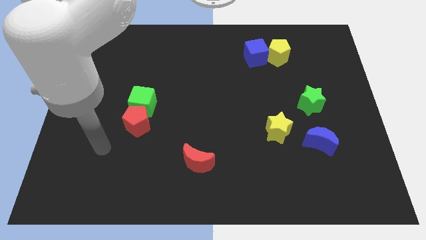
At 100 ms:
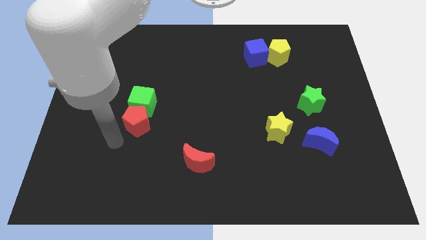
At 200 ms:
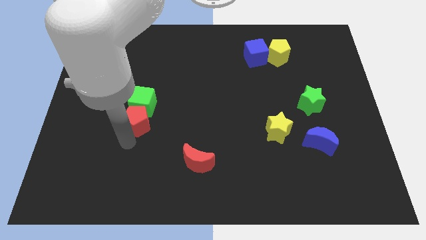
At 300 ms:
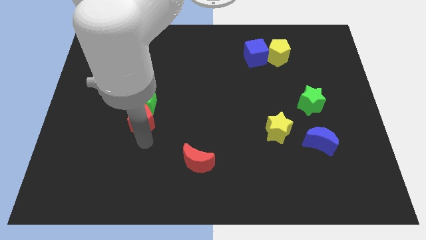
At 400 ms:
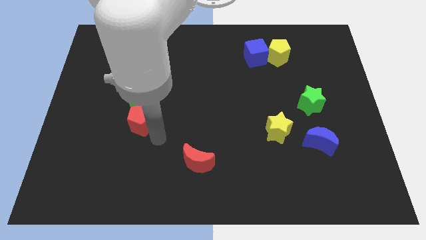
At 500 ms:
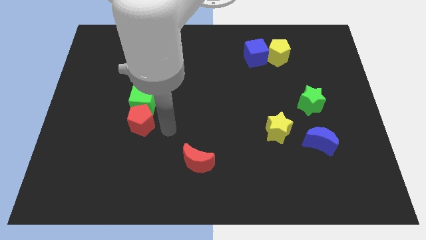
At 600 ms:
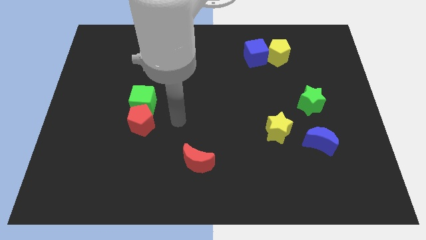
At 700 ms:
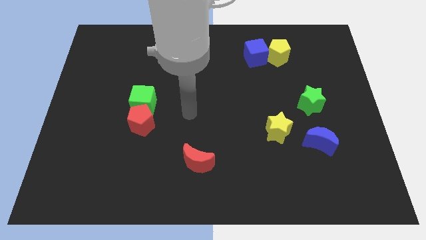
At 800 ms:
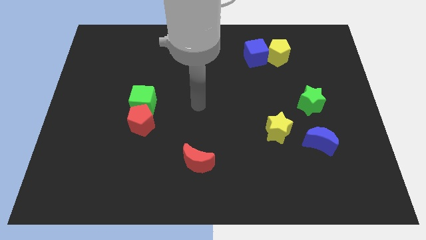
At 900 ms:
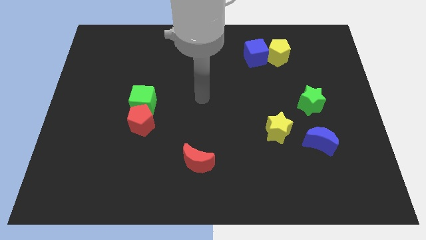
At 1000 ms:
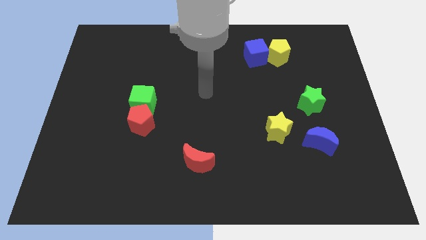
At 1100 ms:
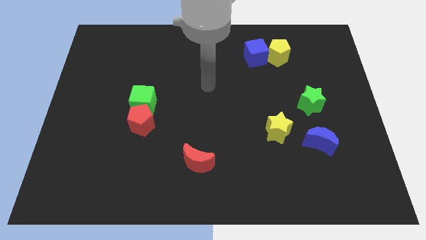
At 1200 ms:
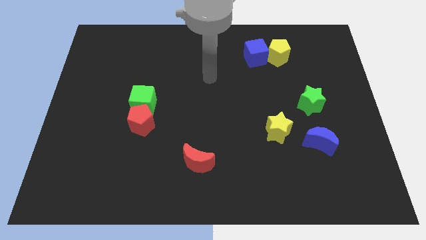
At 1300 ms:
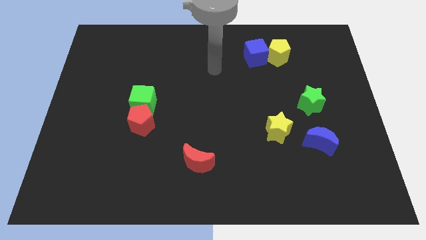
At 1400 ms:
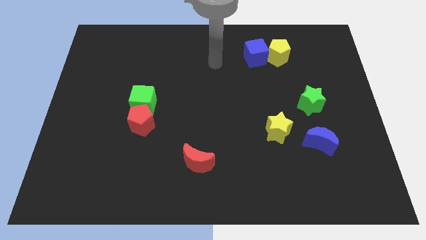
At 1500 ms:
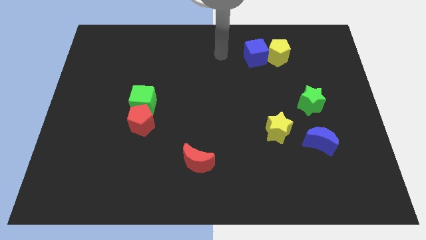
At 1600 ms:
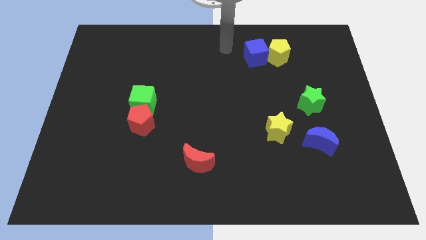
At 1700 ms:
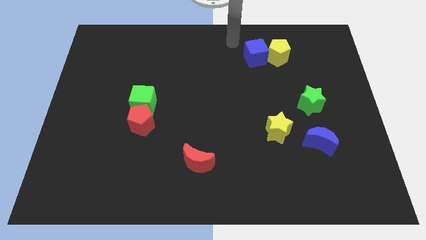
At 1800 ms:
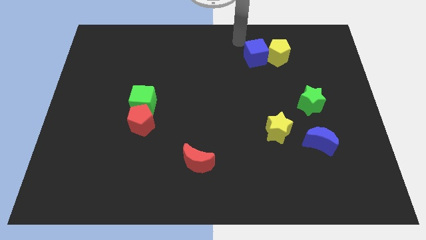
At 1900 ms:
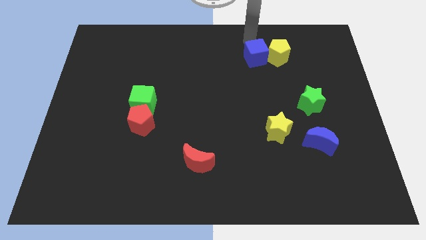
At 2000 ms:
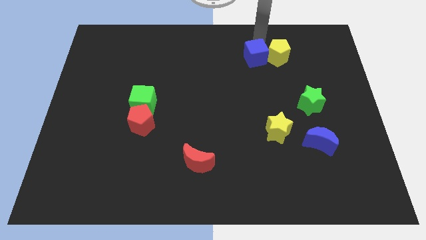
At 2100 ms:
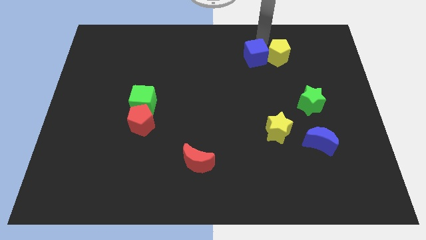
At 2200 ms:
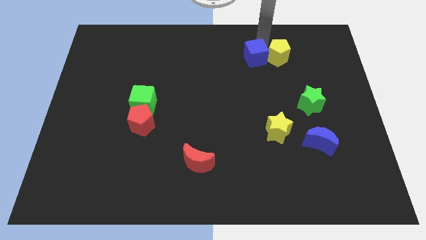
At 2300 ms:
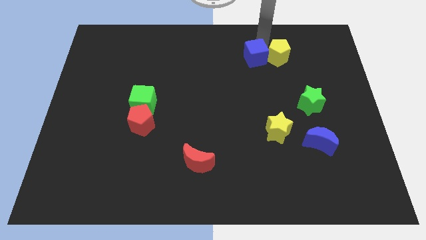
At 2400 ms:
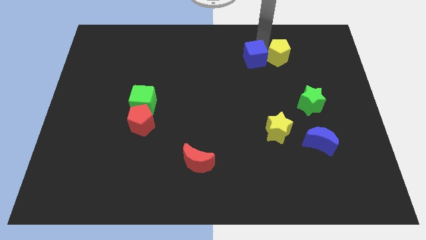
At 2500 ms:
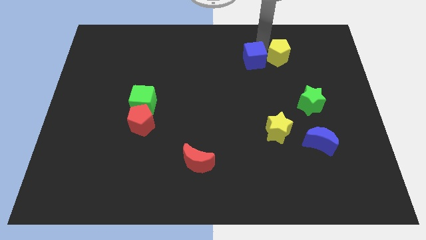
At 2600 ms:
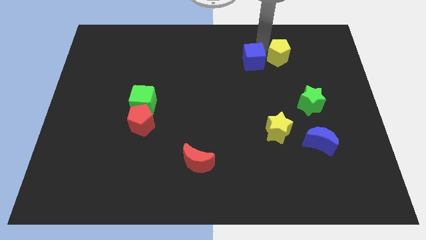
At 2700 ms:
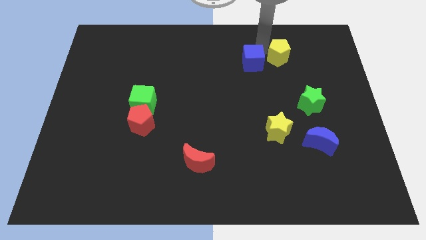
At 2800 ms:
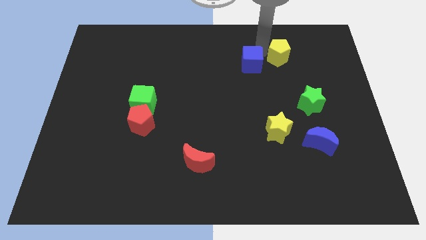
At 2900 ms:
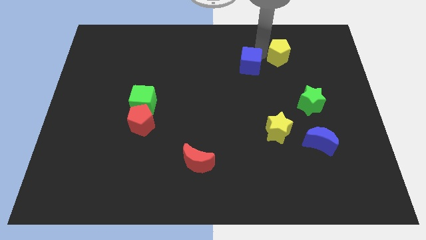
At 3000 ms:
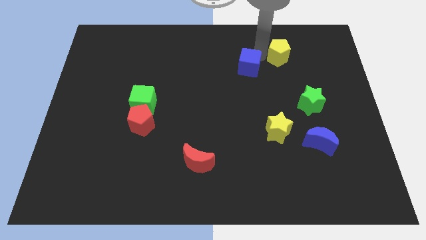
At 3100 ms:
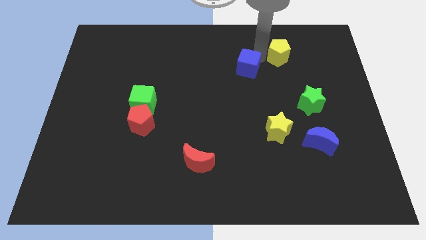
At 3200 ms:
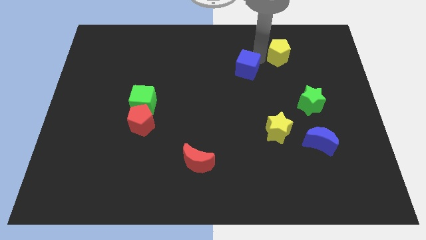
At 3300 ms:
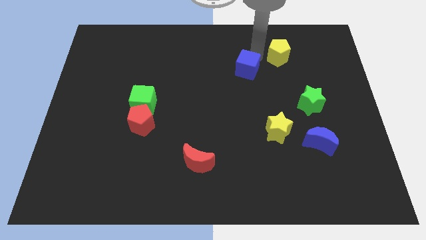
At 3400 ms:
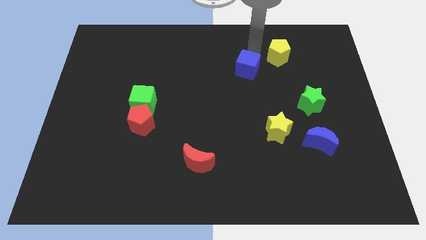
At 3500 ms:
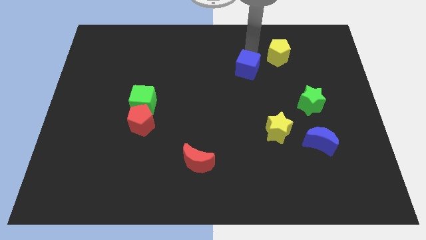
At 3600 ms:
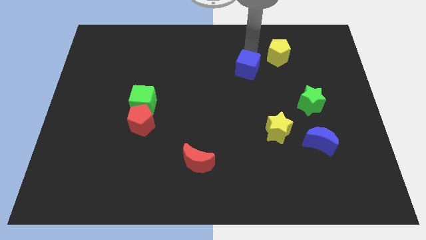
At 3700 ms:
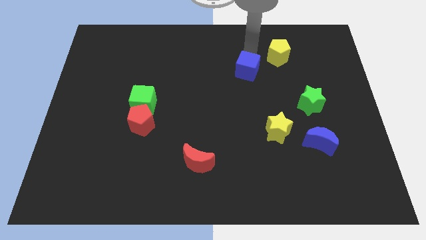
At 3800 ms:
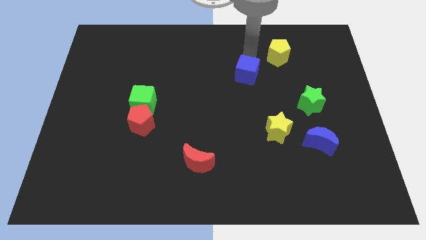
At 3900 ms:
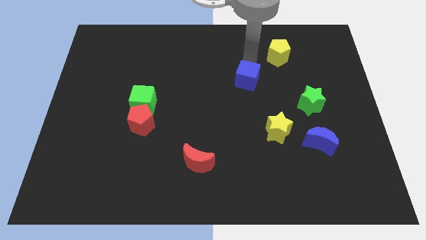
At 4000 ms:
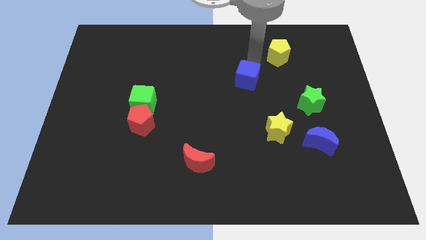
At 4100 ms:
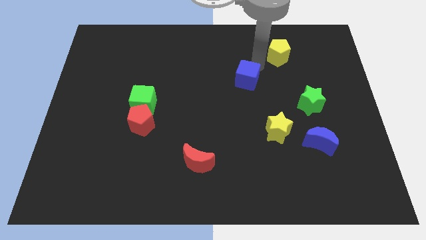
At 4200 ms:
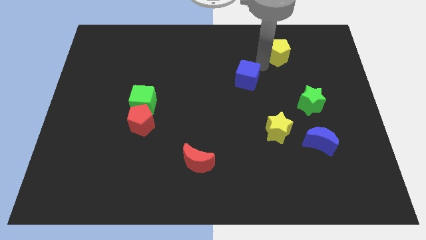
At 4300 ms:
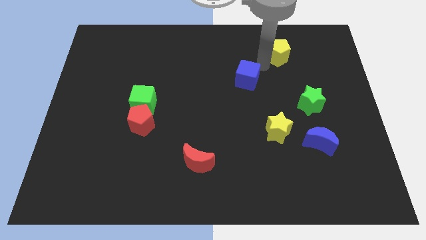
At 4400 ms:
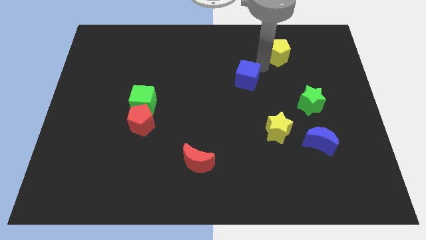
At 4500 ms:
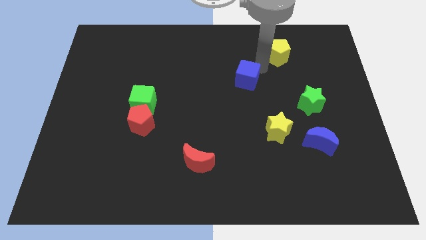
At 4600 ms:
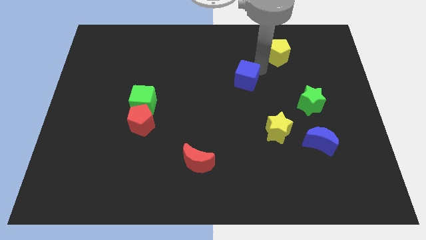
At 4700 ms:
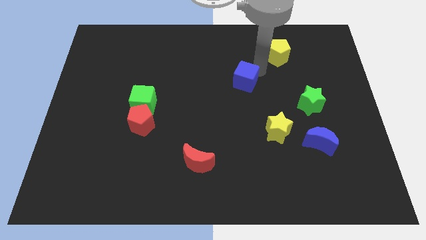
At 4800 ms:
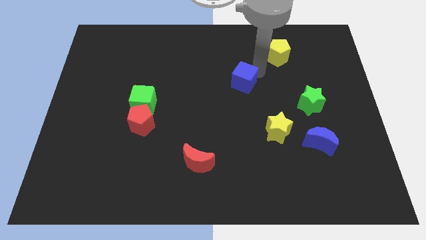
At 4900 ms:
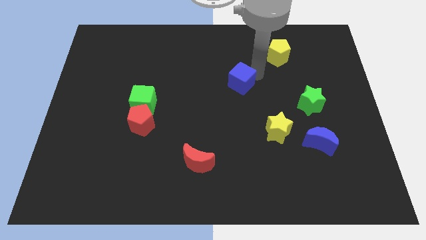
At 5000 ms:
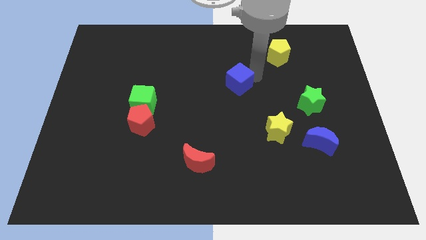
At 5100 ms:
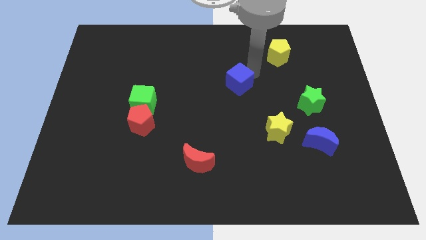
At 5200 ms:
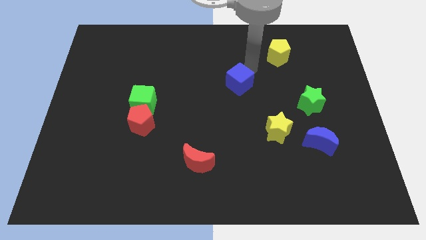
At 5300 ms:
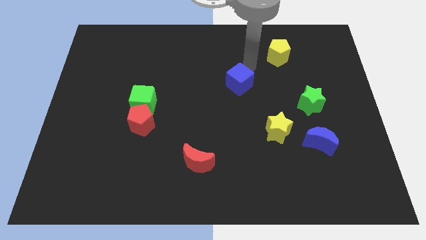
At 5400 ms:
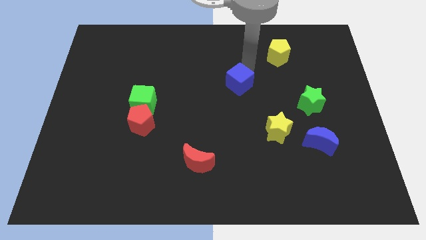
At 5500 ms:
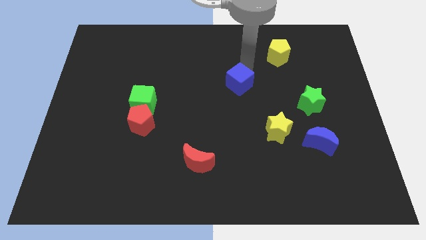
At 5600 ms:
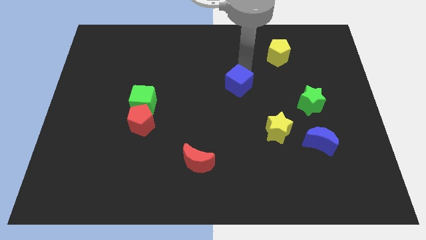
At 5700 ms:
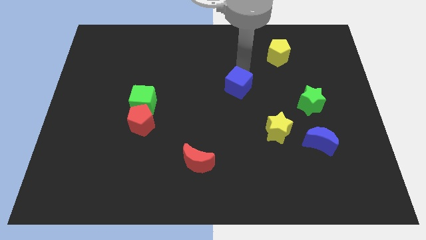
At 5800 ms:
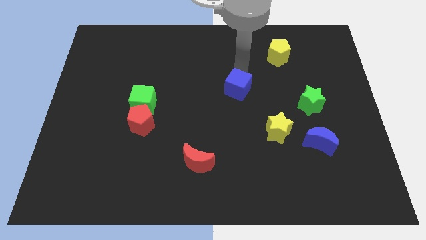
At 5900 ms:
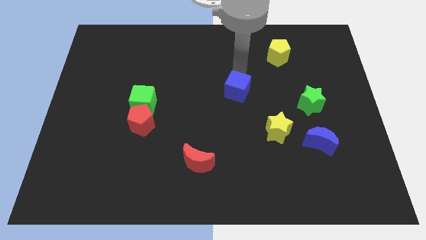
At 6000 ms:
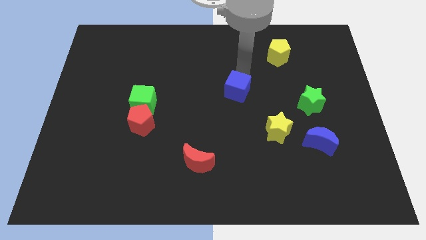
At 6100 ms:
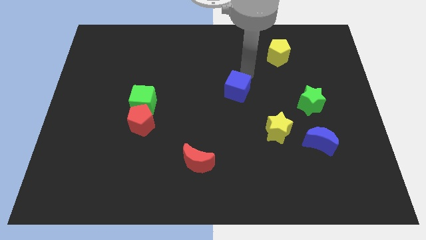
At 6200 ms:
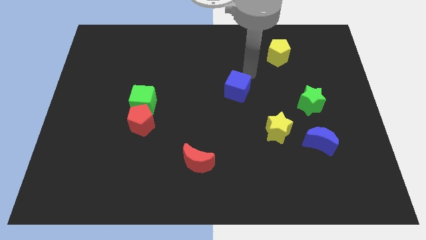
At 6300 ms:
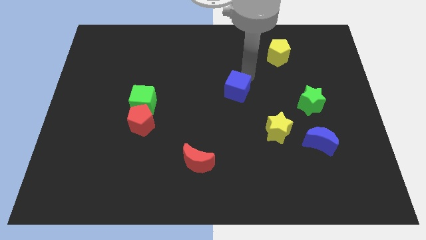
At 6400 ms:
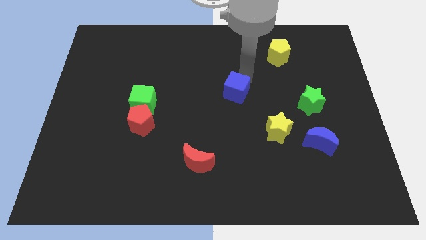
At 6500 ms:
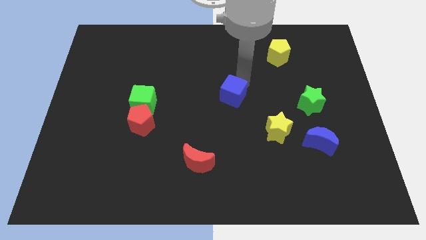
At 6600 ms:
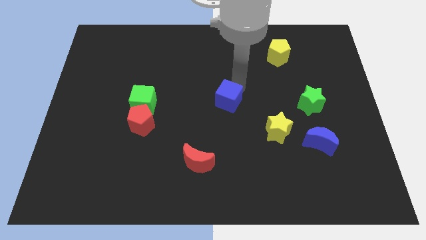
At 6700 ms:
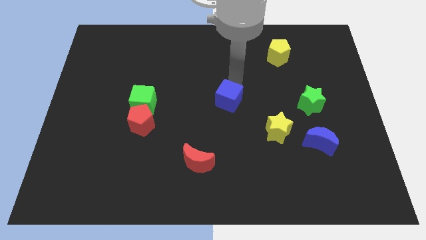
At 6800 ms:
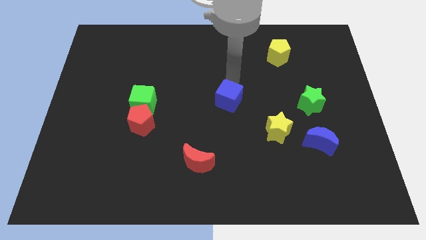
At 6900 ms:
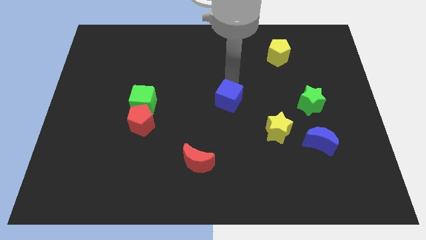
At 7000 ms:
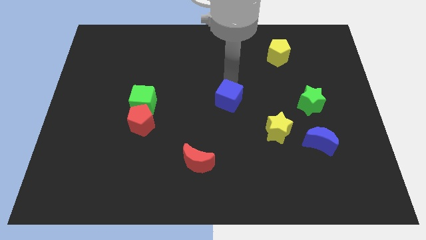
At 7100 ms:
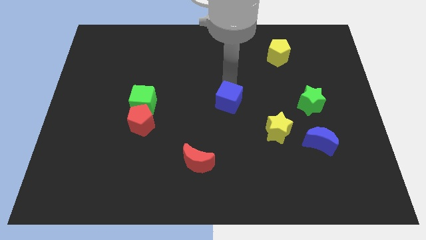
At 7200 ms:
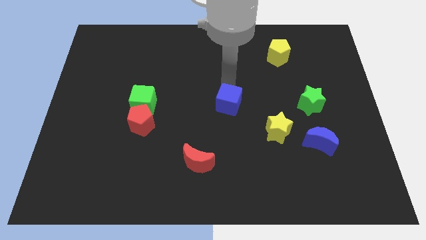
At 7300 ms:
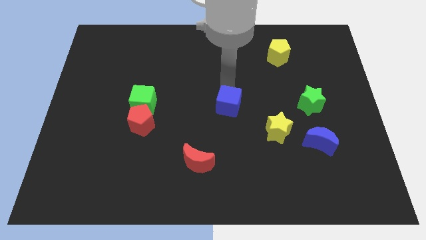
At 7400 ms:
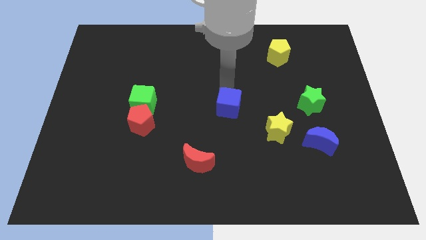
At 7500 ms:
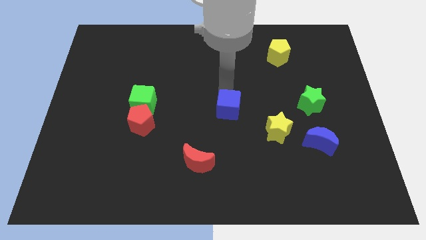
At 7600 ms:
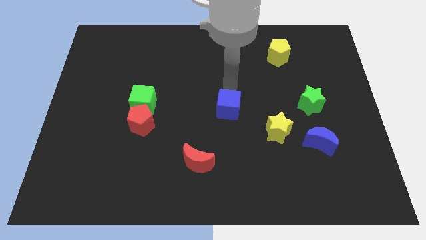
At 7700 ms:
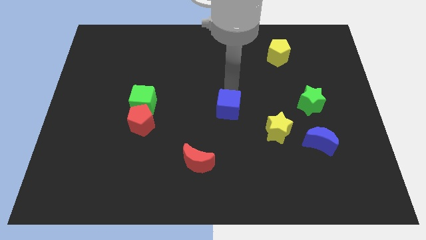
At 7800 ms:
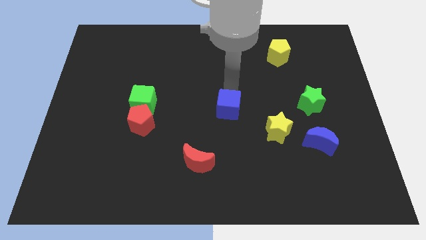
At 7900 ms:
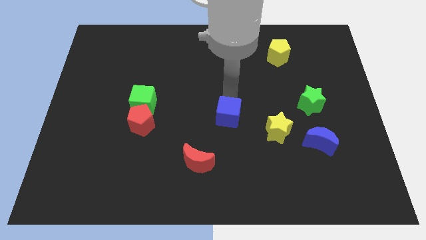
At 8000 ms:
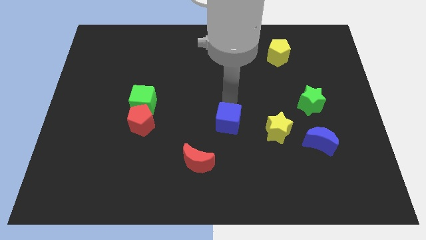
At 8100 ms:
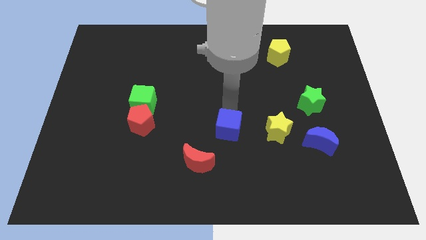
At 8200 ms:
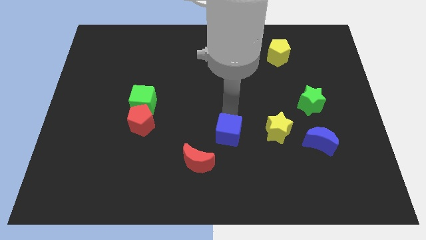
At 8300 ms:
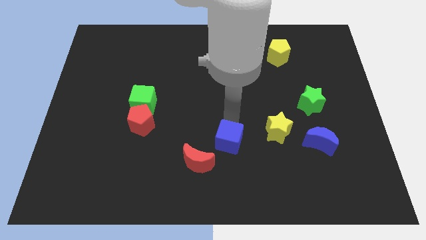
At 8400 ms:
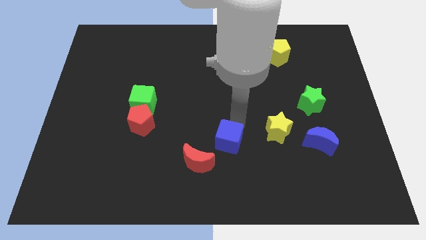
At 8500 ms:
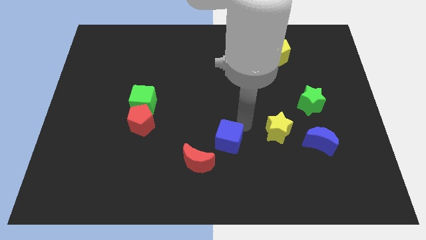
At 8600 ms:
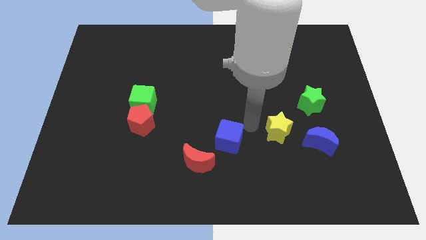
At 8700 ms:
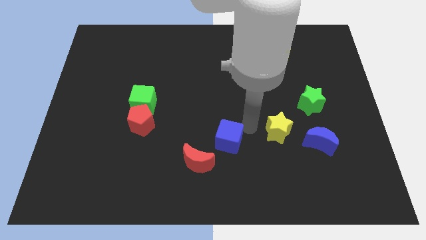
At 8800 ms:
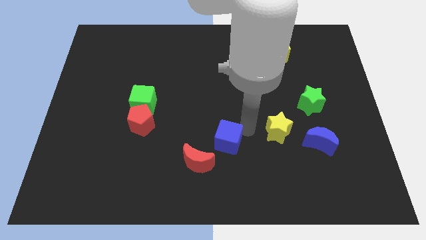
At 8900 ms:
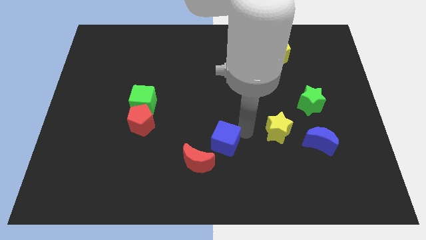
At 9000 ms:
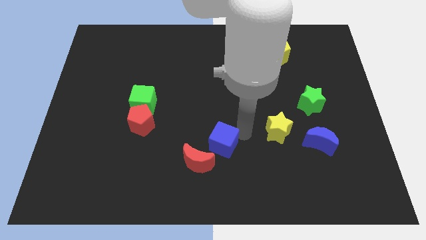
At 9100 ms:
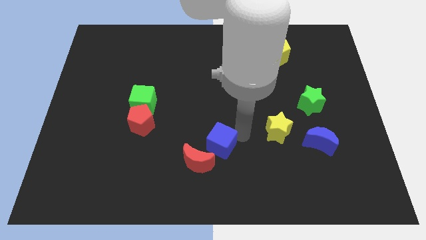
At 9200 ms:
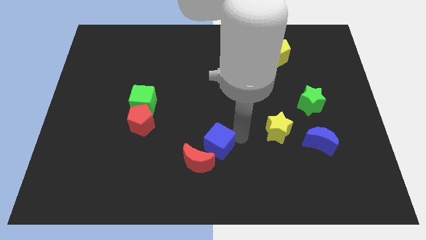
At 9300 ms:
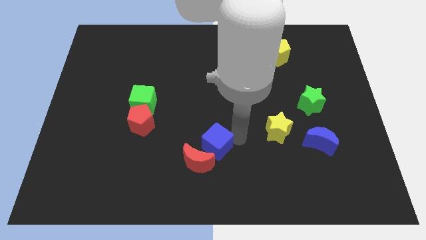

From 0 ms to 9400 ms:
put the blue cube towards the red moon
